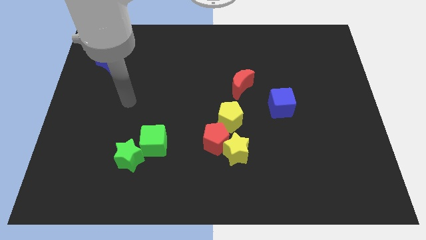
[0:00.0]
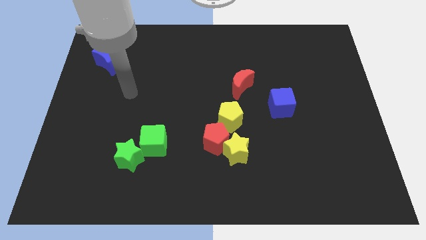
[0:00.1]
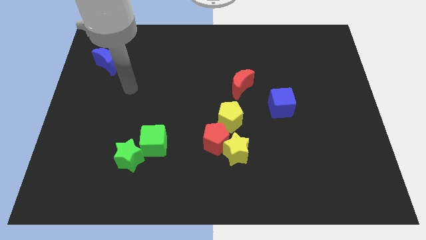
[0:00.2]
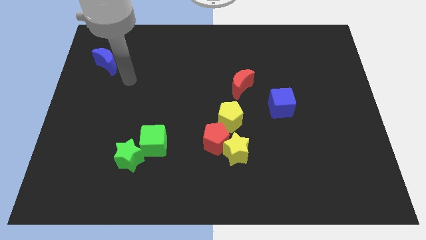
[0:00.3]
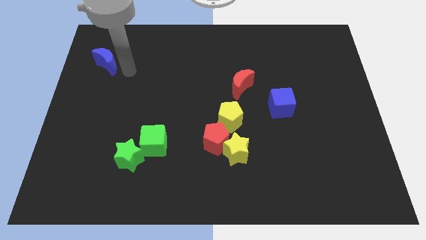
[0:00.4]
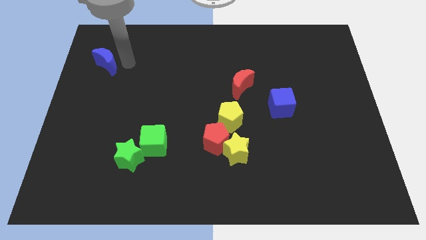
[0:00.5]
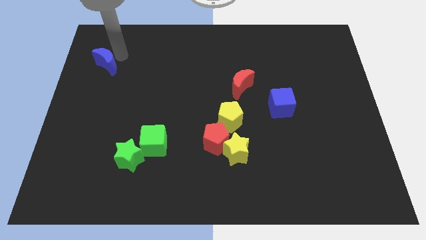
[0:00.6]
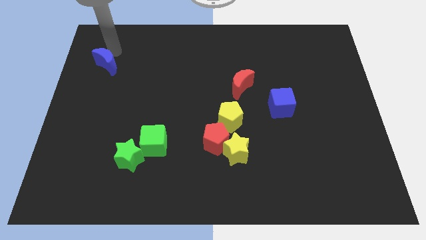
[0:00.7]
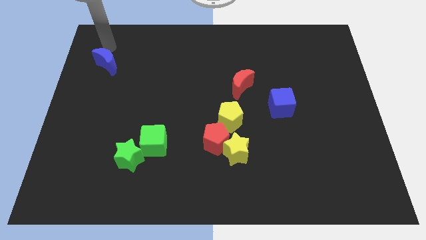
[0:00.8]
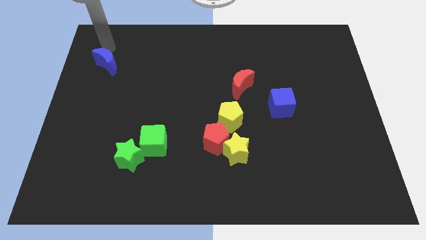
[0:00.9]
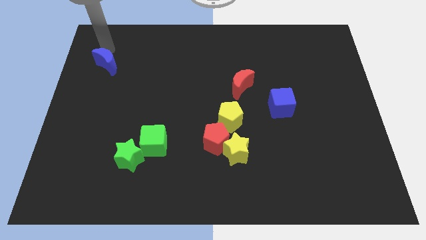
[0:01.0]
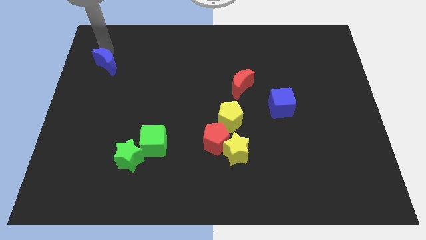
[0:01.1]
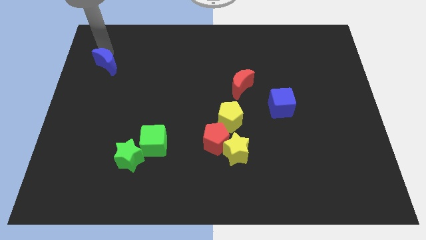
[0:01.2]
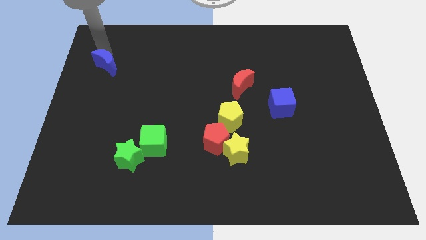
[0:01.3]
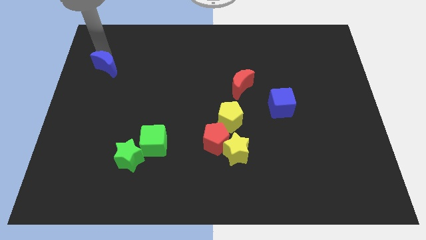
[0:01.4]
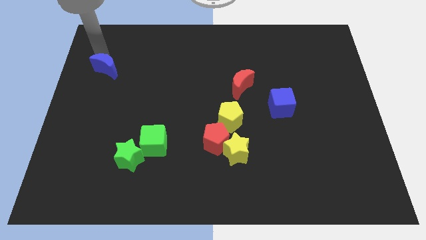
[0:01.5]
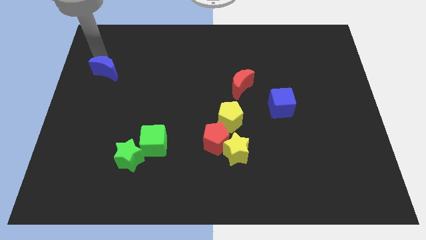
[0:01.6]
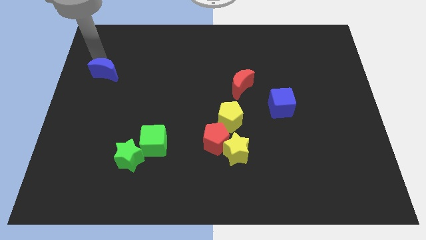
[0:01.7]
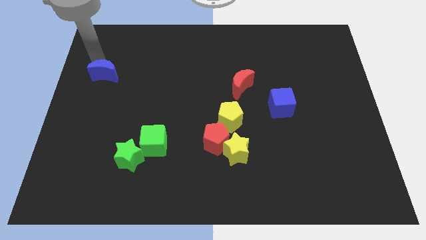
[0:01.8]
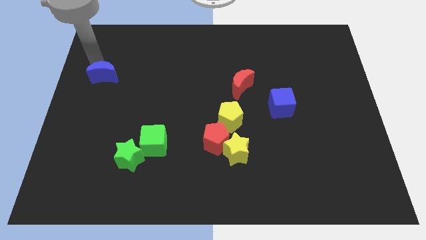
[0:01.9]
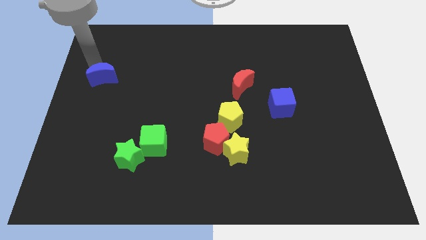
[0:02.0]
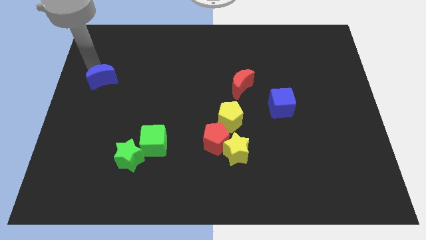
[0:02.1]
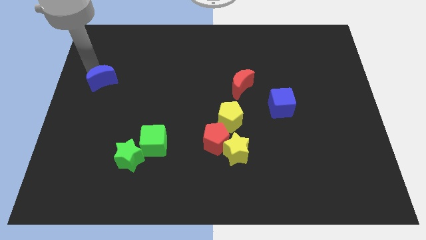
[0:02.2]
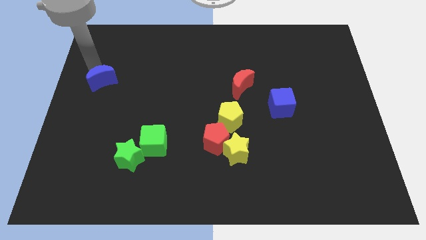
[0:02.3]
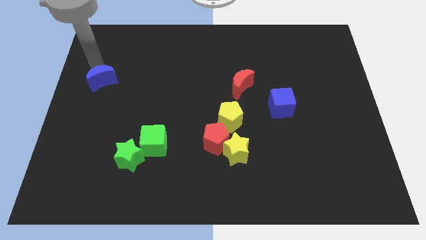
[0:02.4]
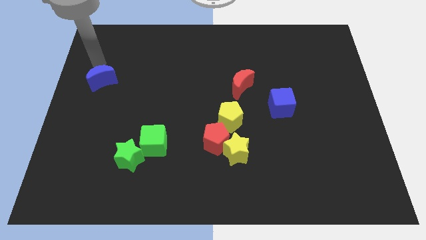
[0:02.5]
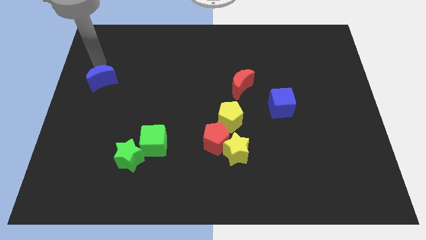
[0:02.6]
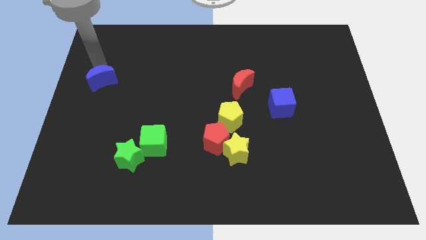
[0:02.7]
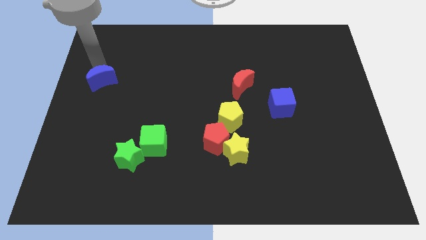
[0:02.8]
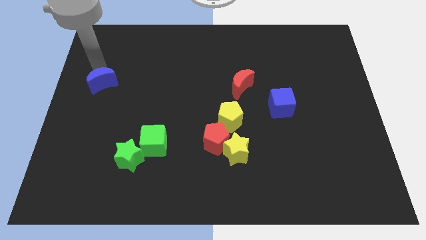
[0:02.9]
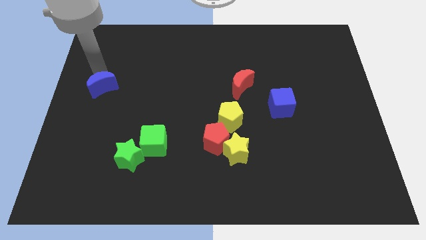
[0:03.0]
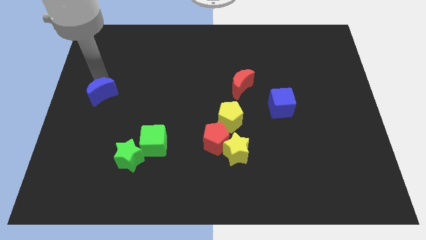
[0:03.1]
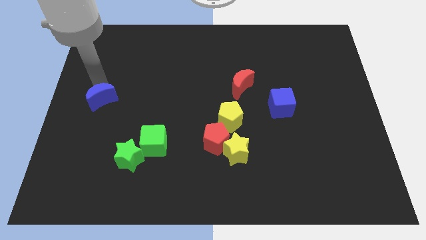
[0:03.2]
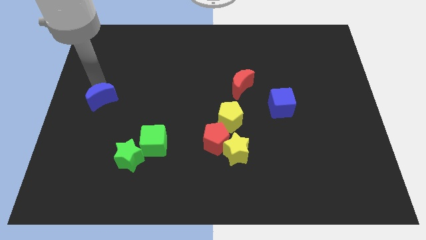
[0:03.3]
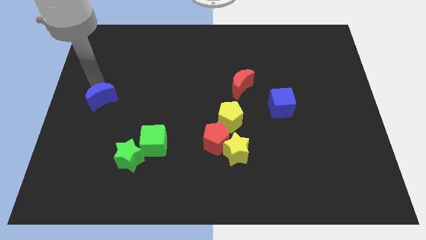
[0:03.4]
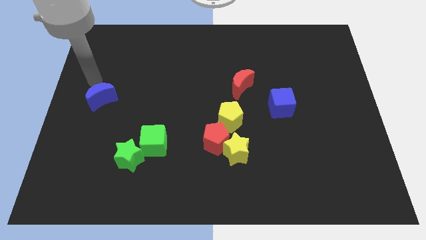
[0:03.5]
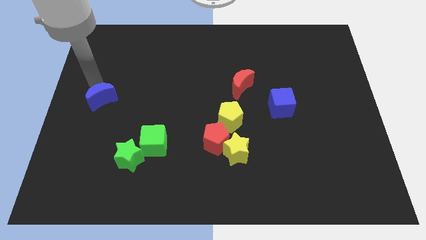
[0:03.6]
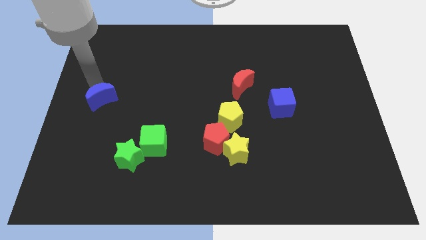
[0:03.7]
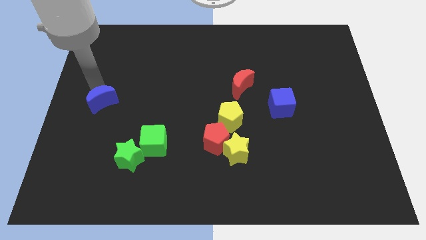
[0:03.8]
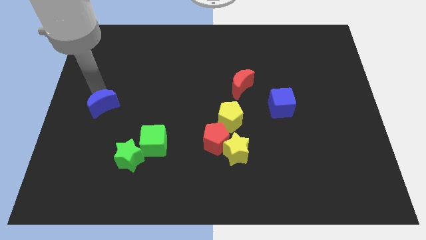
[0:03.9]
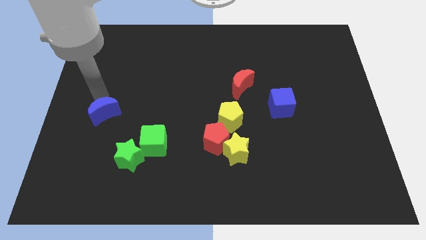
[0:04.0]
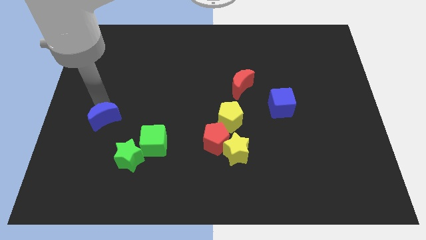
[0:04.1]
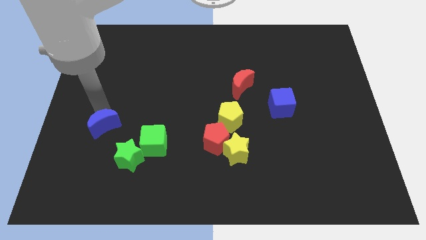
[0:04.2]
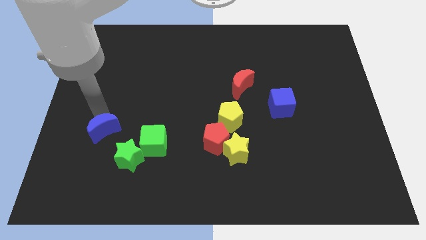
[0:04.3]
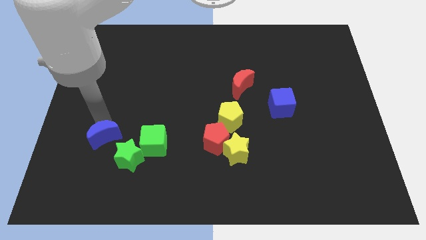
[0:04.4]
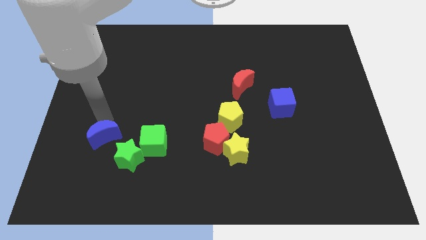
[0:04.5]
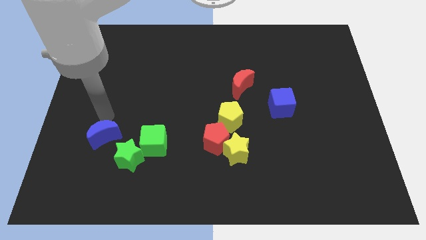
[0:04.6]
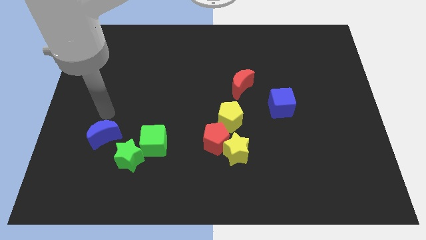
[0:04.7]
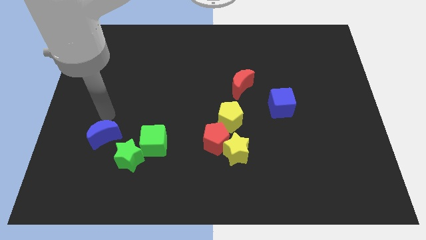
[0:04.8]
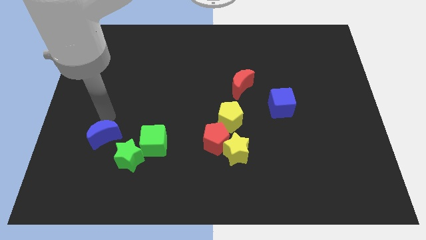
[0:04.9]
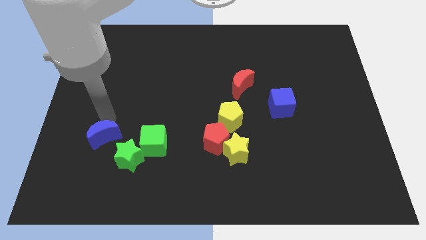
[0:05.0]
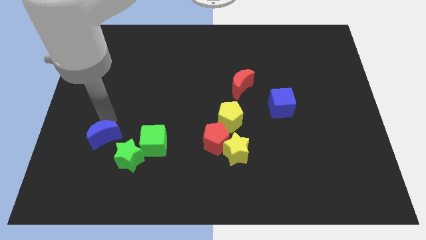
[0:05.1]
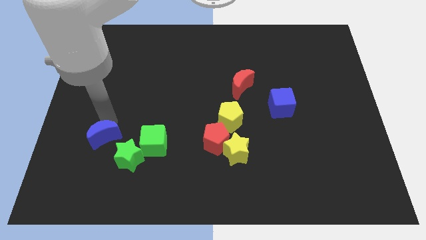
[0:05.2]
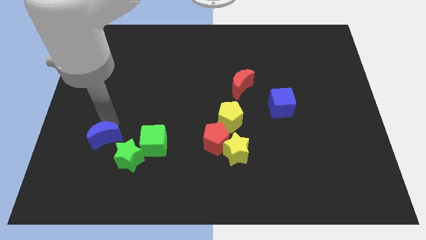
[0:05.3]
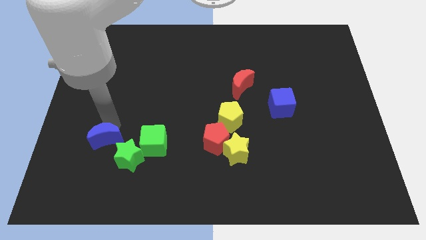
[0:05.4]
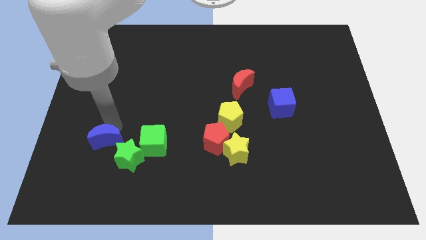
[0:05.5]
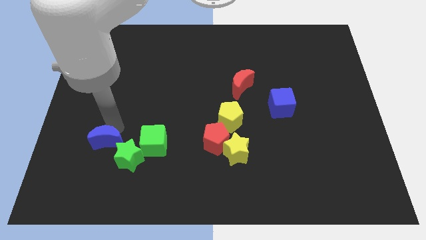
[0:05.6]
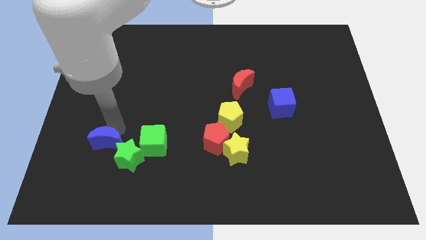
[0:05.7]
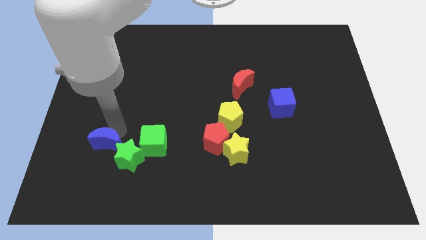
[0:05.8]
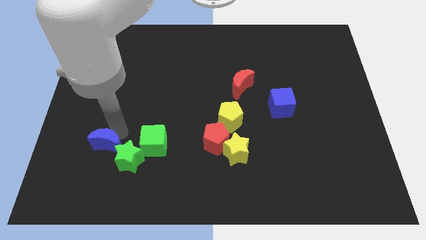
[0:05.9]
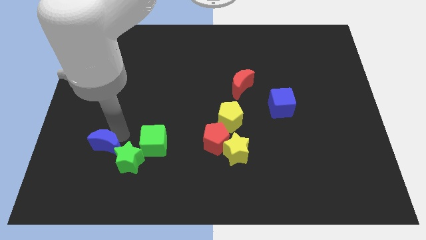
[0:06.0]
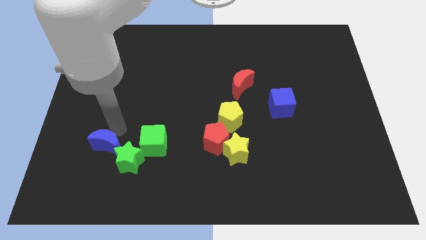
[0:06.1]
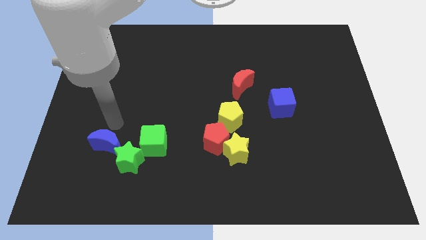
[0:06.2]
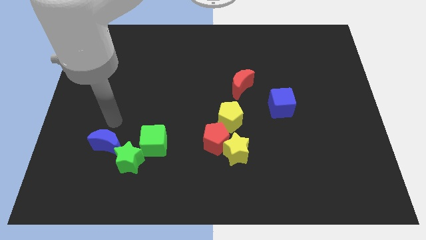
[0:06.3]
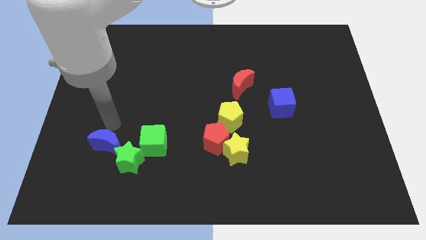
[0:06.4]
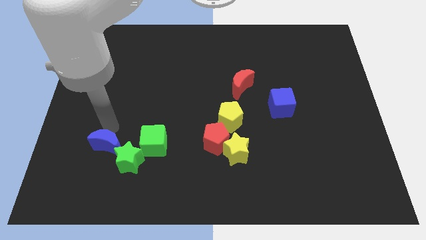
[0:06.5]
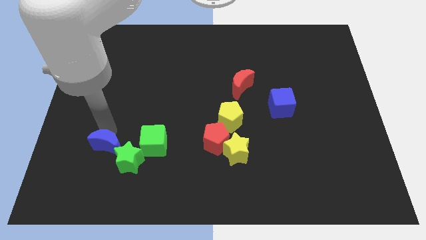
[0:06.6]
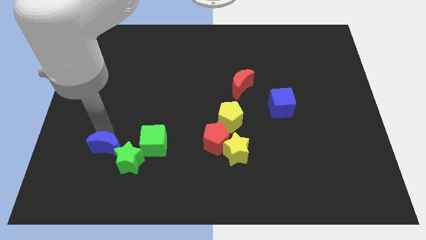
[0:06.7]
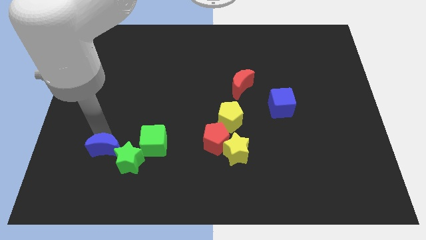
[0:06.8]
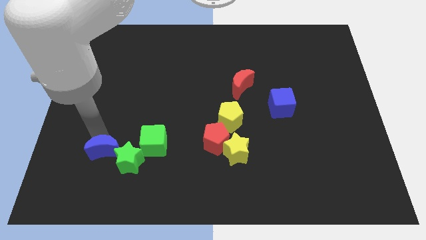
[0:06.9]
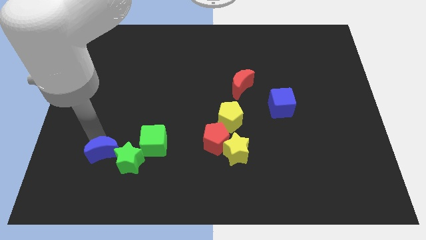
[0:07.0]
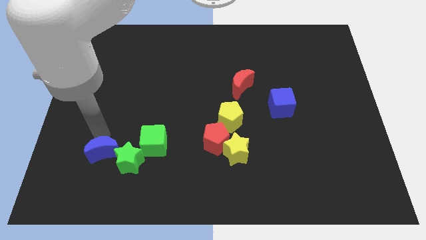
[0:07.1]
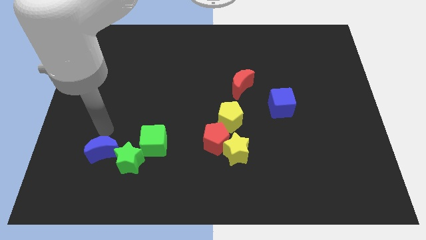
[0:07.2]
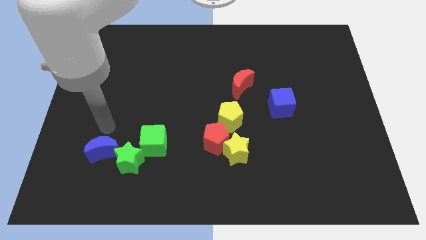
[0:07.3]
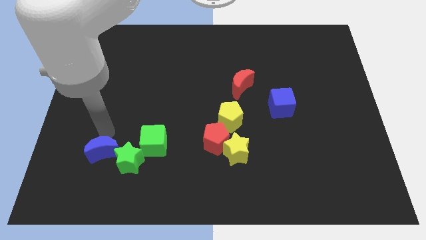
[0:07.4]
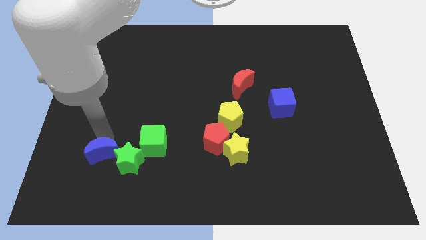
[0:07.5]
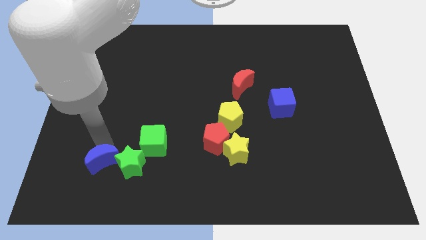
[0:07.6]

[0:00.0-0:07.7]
slide the blue moon to the bottom left of the green star
